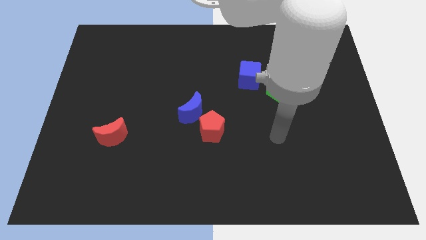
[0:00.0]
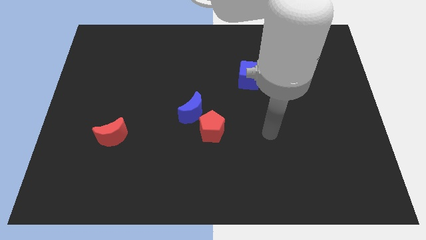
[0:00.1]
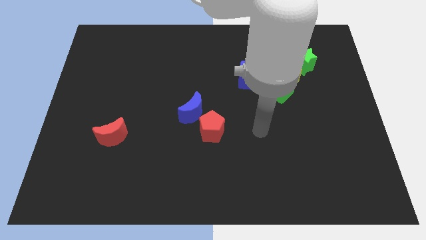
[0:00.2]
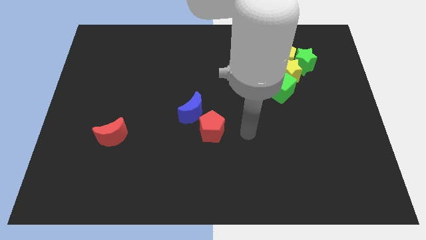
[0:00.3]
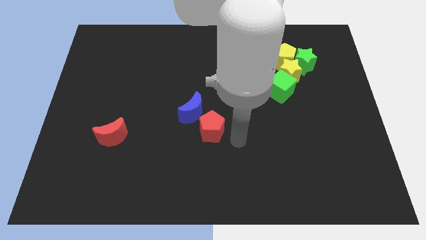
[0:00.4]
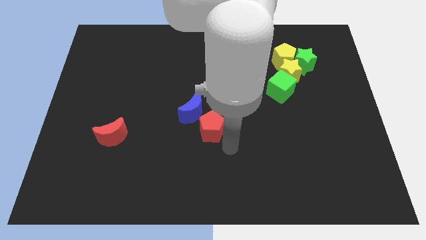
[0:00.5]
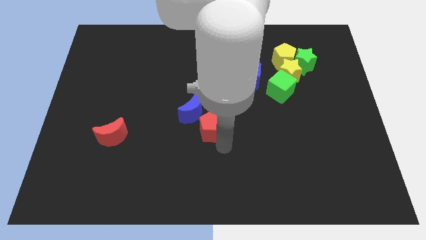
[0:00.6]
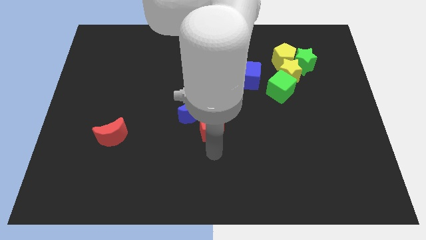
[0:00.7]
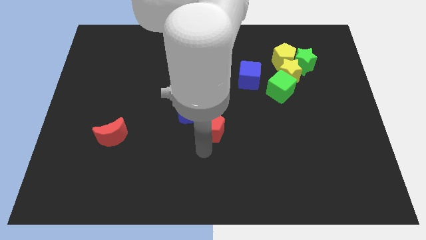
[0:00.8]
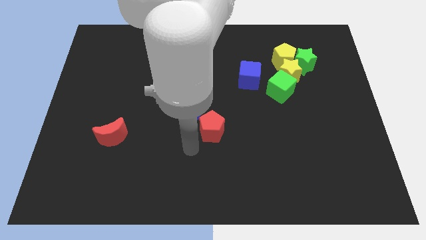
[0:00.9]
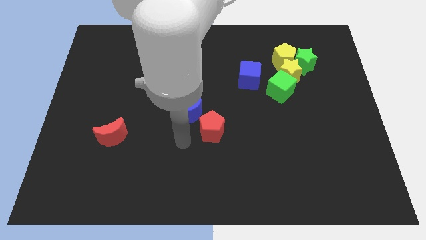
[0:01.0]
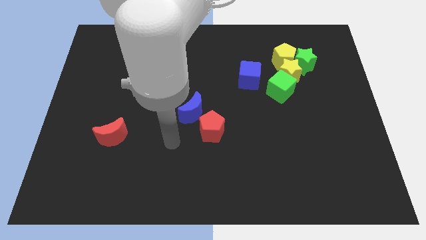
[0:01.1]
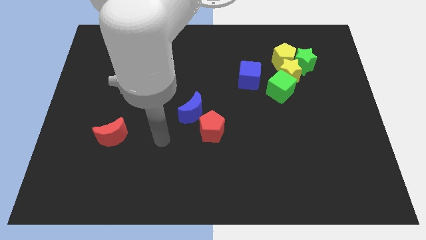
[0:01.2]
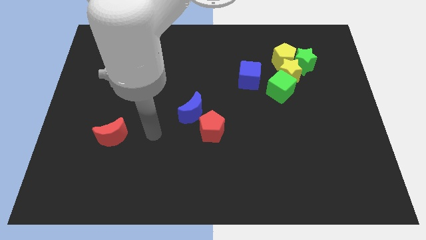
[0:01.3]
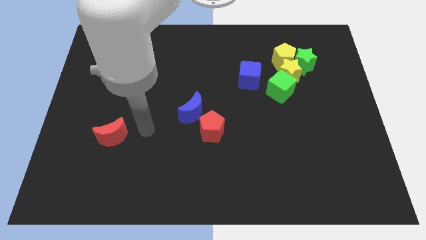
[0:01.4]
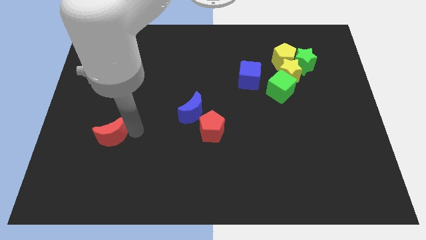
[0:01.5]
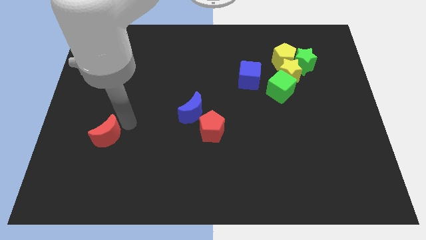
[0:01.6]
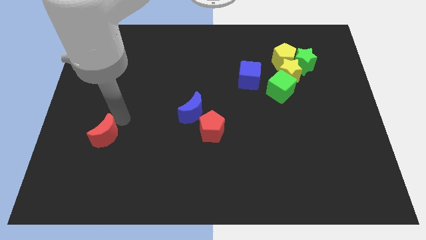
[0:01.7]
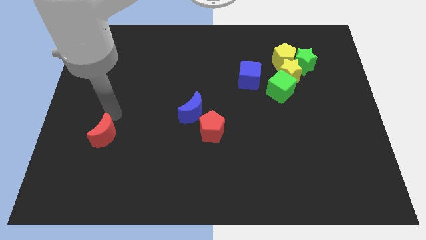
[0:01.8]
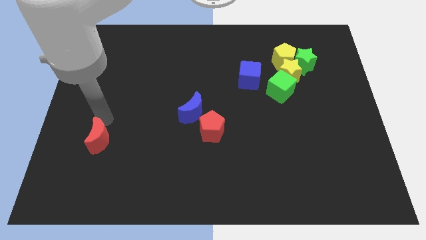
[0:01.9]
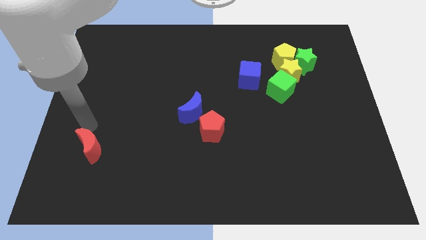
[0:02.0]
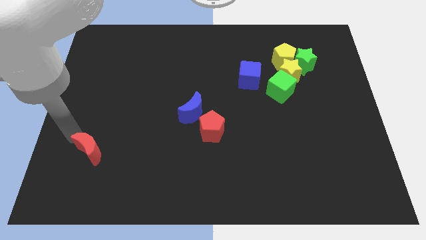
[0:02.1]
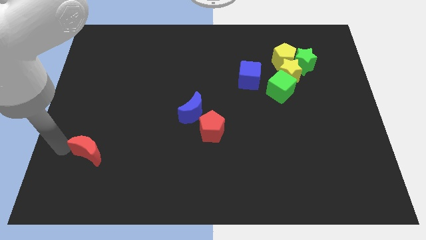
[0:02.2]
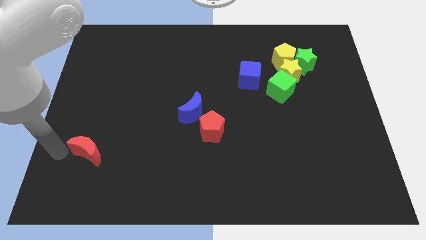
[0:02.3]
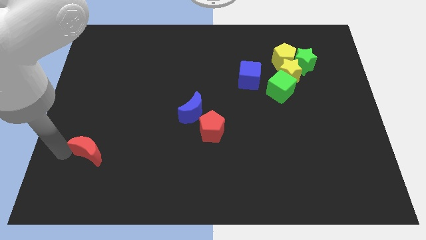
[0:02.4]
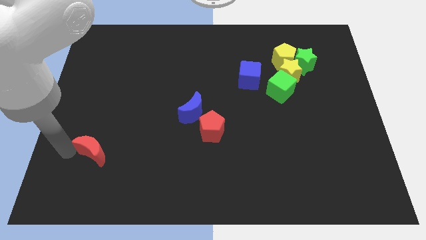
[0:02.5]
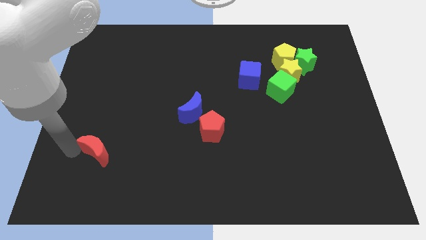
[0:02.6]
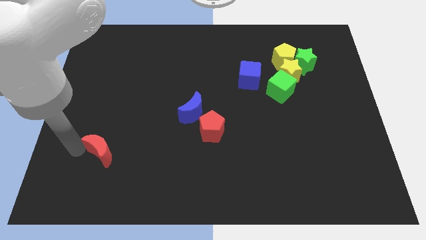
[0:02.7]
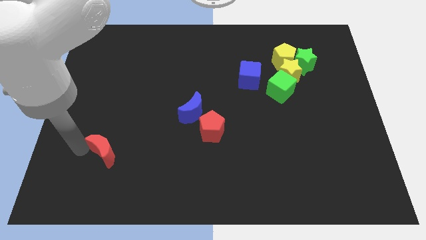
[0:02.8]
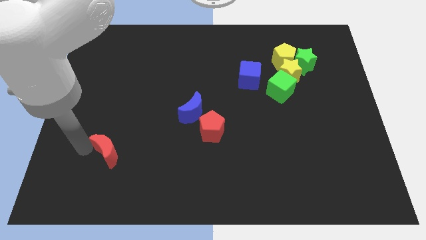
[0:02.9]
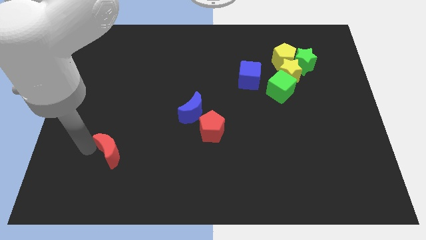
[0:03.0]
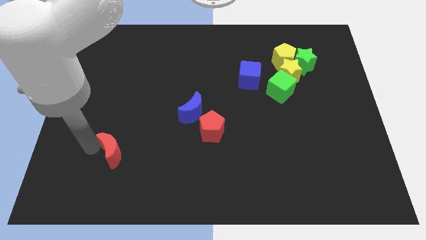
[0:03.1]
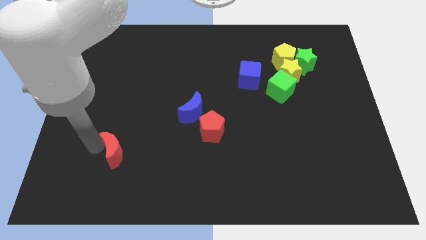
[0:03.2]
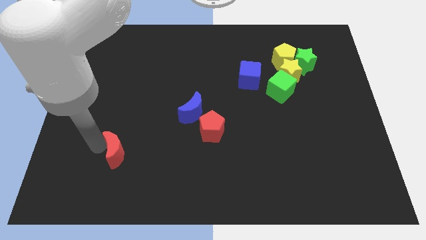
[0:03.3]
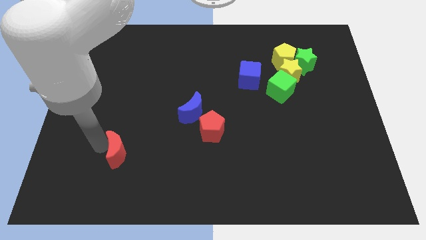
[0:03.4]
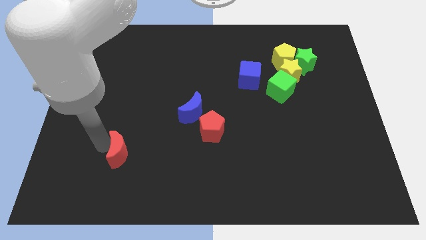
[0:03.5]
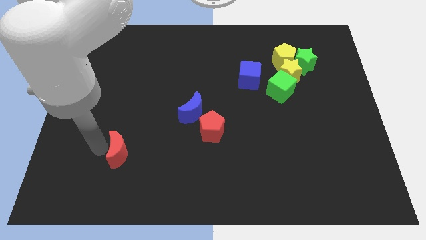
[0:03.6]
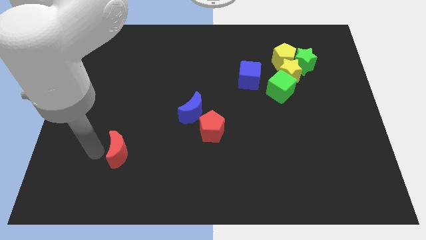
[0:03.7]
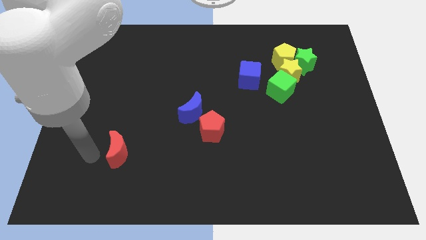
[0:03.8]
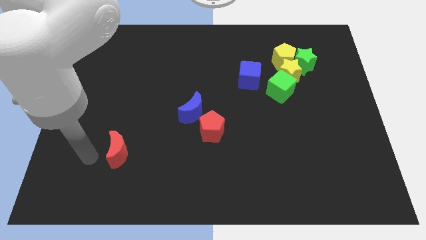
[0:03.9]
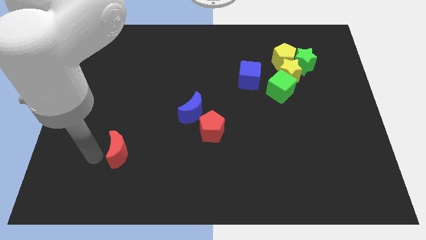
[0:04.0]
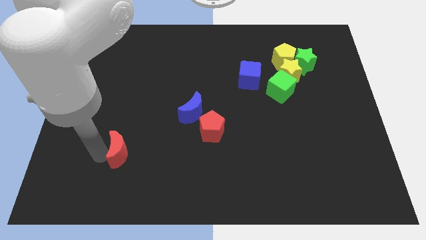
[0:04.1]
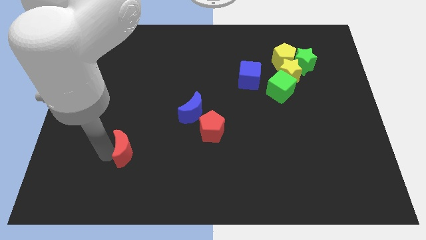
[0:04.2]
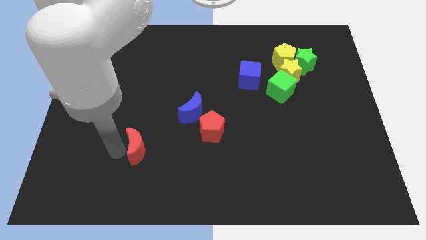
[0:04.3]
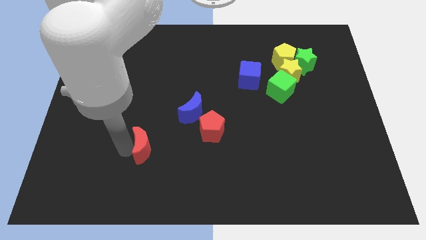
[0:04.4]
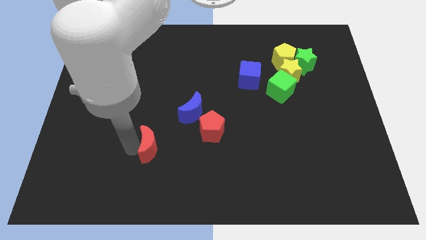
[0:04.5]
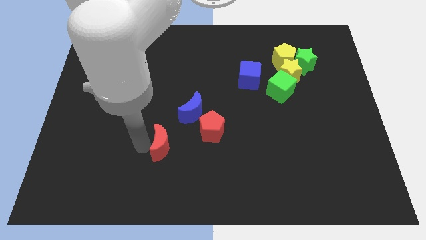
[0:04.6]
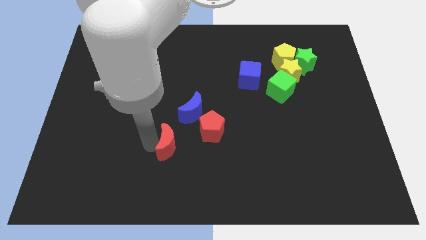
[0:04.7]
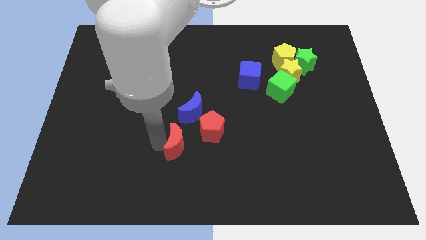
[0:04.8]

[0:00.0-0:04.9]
move the red moon below the blue moon

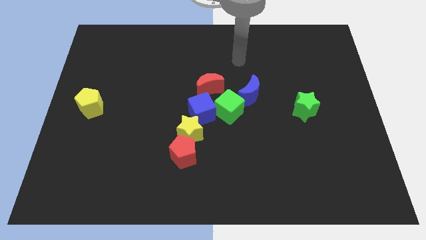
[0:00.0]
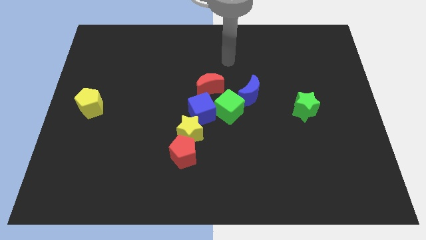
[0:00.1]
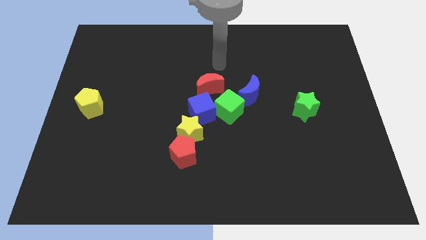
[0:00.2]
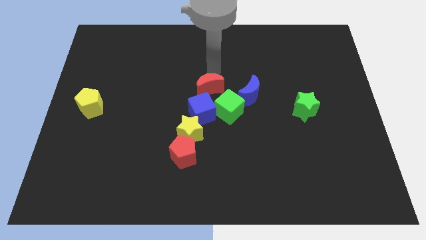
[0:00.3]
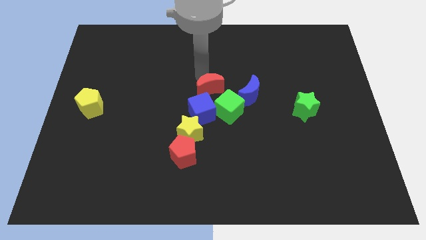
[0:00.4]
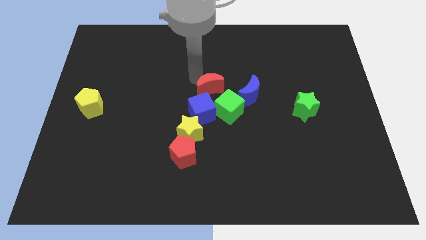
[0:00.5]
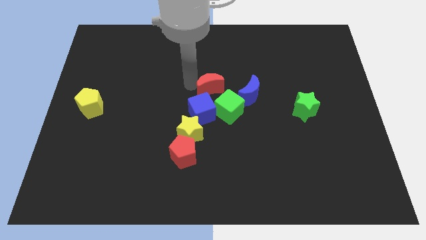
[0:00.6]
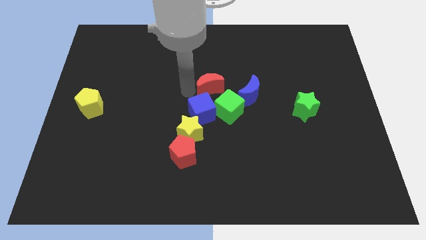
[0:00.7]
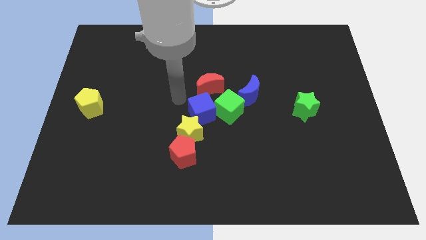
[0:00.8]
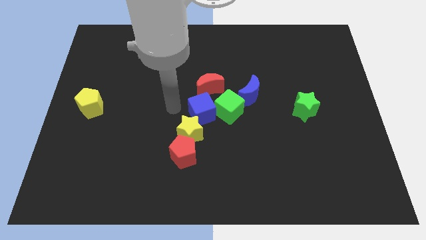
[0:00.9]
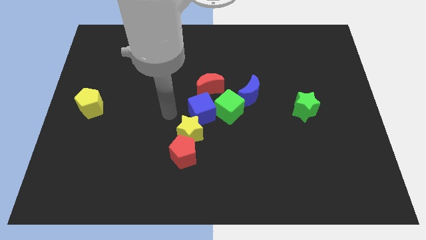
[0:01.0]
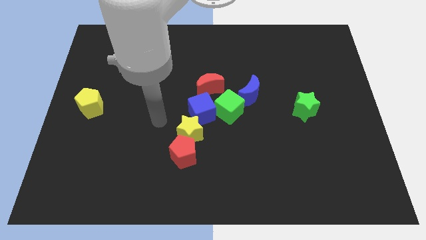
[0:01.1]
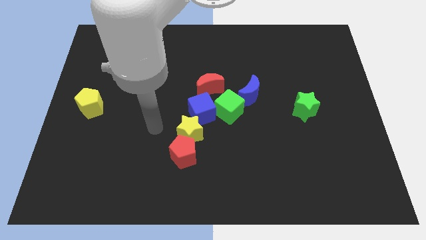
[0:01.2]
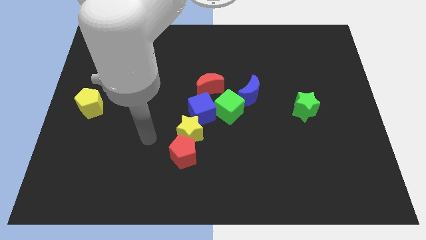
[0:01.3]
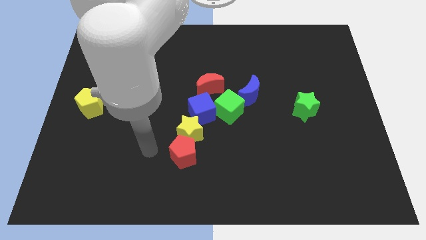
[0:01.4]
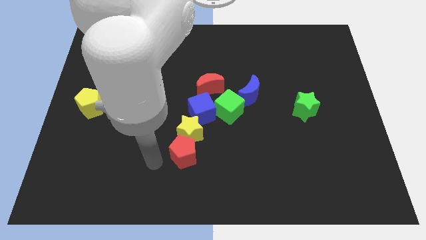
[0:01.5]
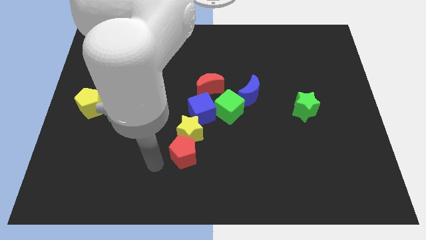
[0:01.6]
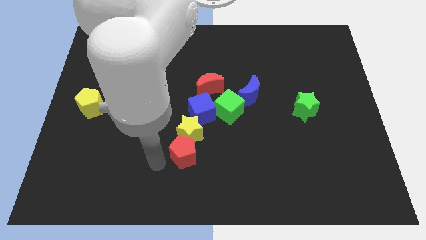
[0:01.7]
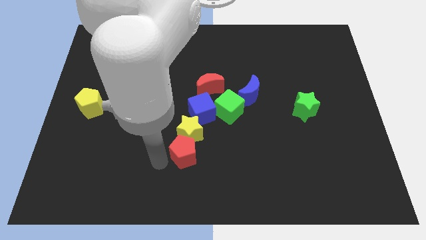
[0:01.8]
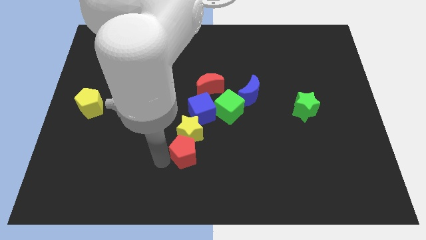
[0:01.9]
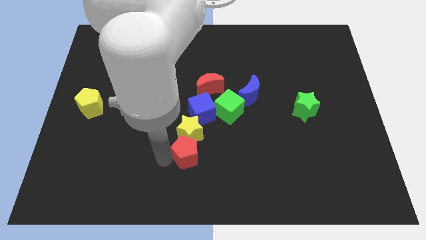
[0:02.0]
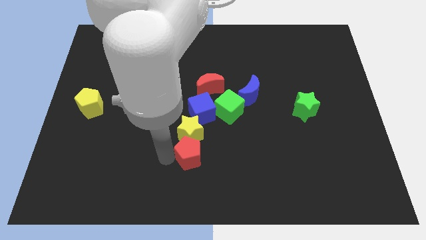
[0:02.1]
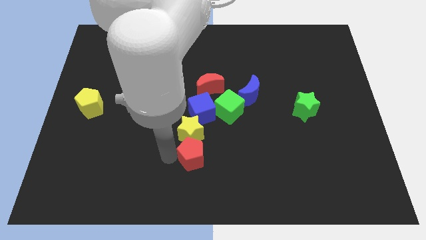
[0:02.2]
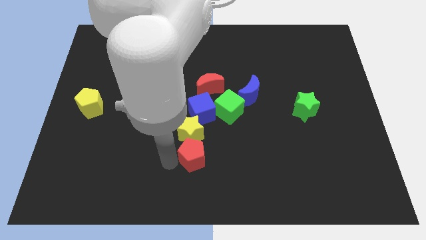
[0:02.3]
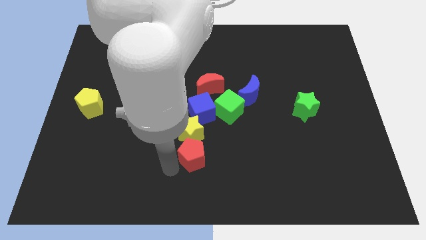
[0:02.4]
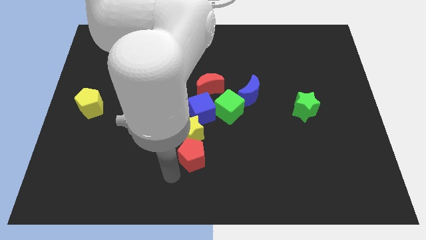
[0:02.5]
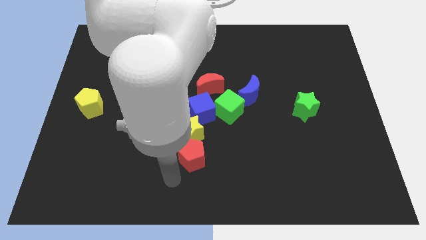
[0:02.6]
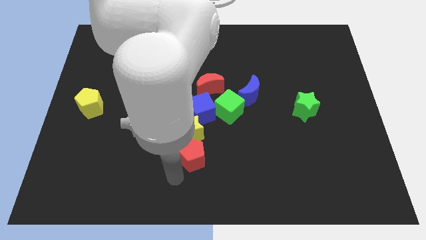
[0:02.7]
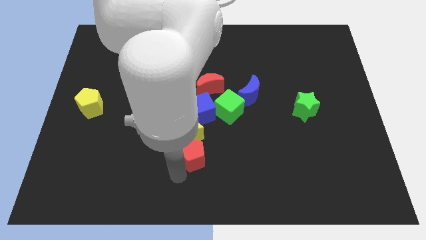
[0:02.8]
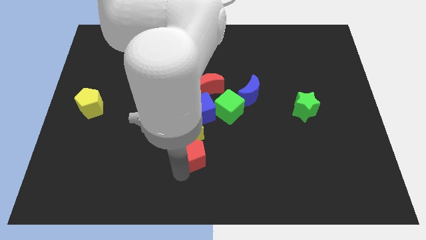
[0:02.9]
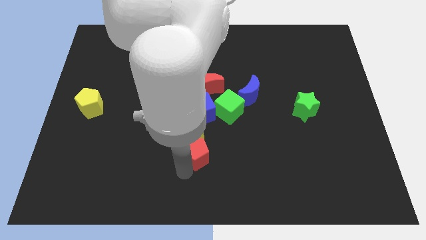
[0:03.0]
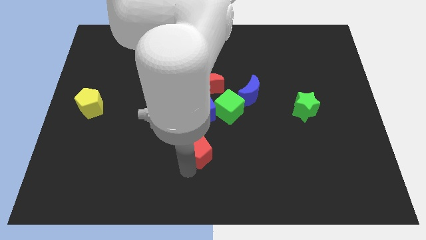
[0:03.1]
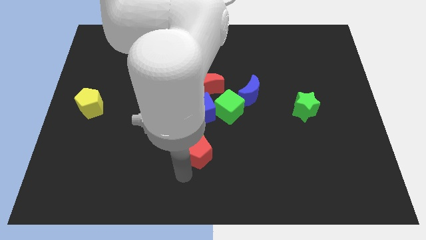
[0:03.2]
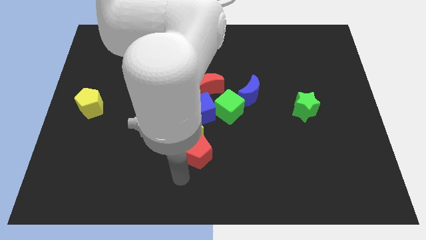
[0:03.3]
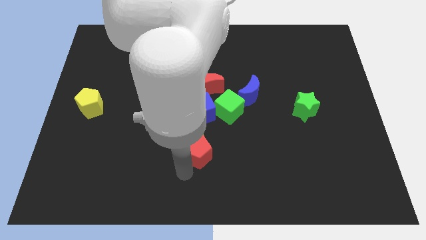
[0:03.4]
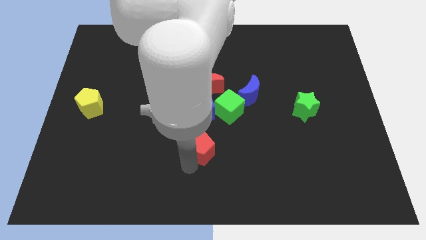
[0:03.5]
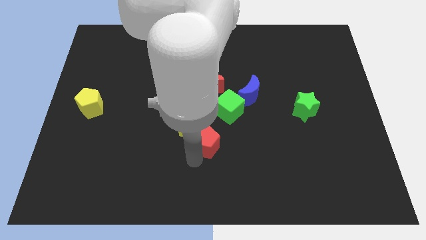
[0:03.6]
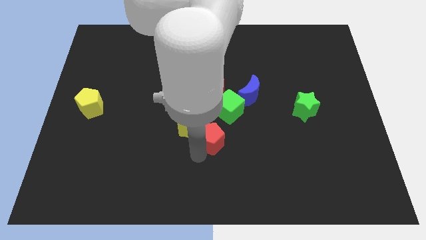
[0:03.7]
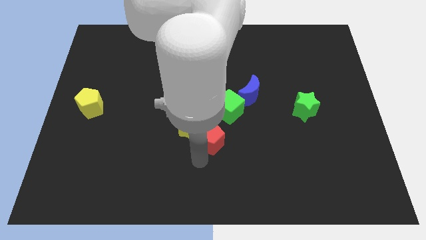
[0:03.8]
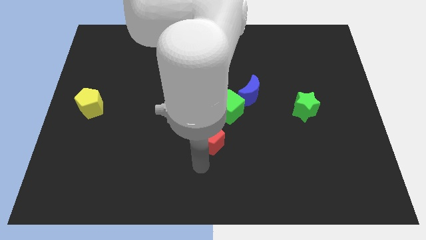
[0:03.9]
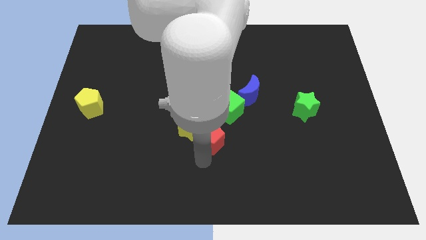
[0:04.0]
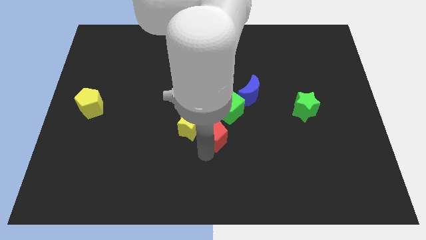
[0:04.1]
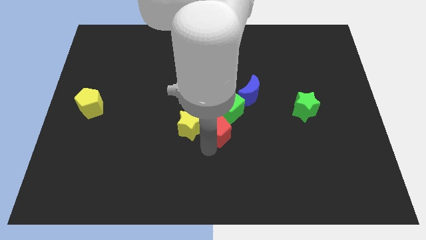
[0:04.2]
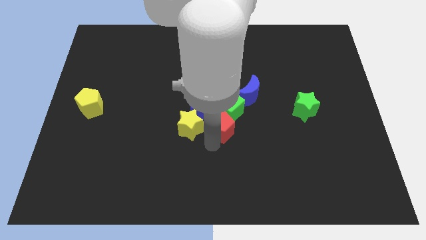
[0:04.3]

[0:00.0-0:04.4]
move the red pentagon diagonally down and to the left of the blue moon
